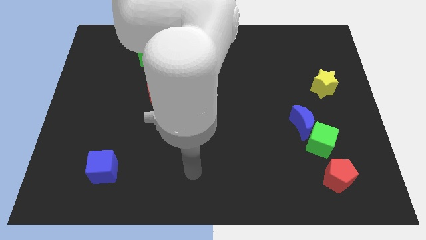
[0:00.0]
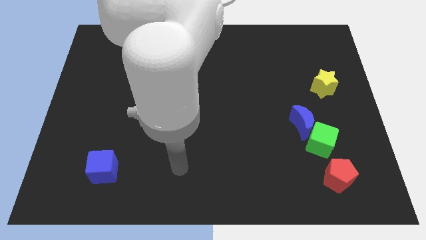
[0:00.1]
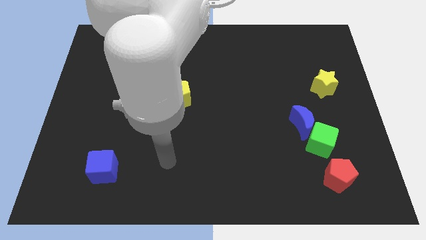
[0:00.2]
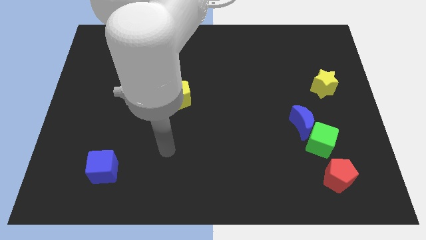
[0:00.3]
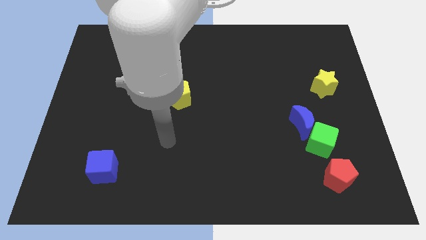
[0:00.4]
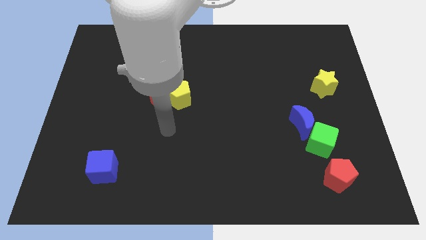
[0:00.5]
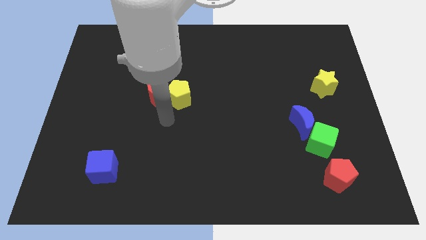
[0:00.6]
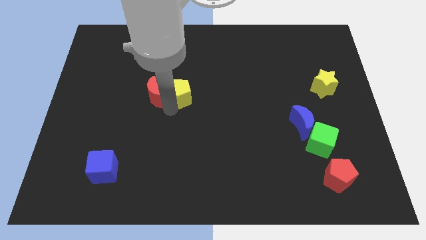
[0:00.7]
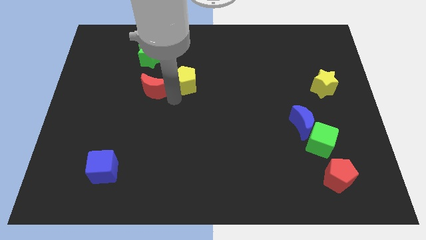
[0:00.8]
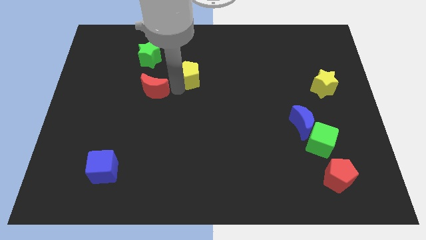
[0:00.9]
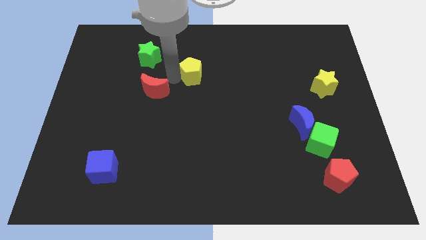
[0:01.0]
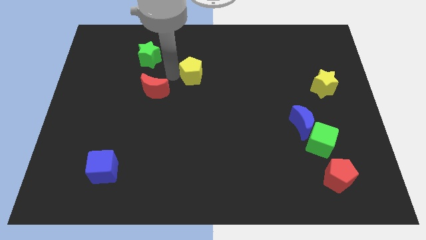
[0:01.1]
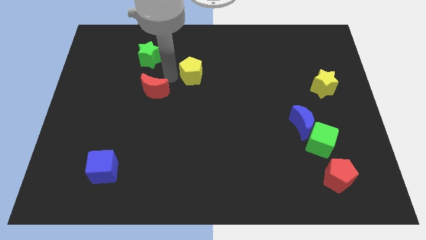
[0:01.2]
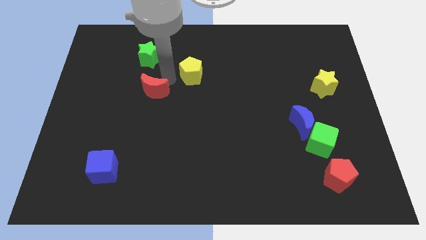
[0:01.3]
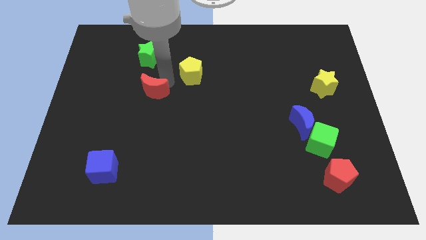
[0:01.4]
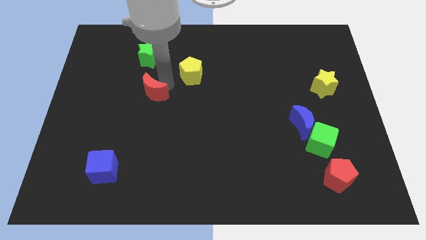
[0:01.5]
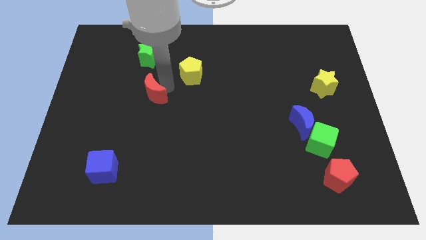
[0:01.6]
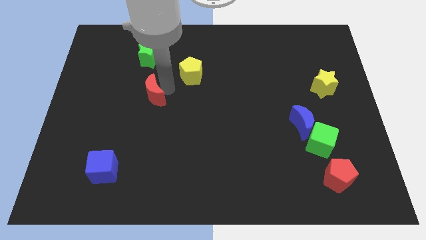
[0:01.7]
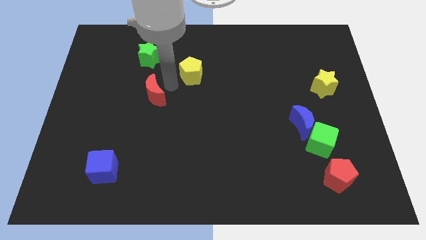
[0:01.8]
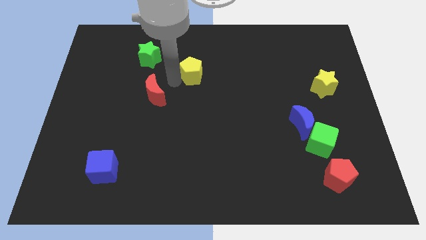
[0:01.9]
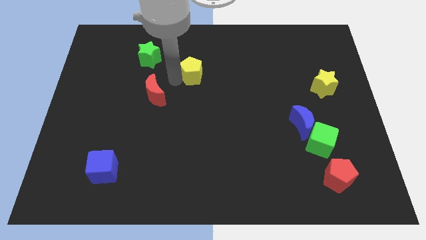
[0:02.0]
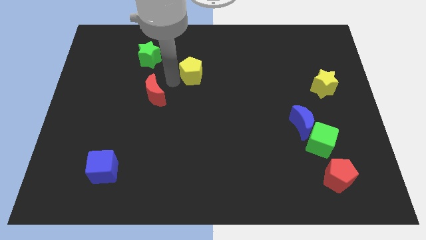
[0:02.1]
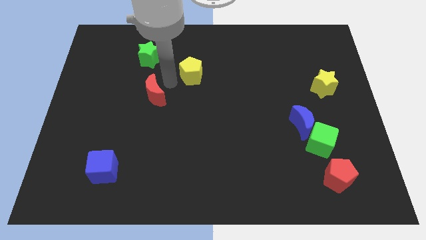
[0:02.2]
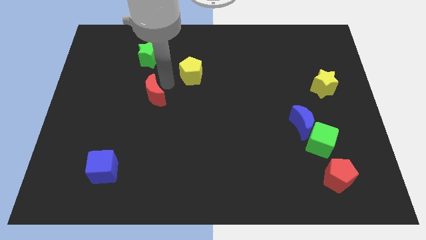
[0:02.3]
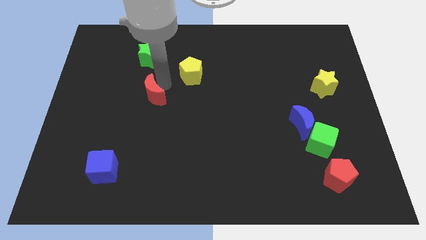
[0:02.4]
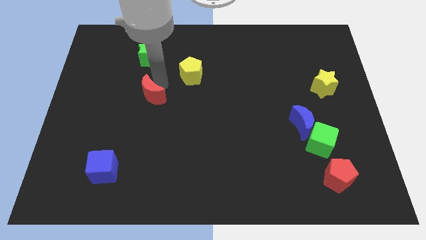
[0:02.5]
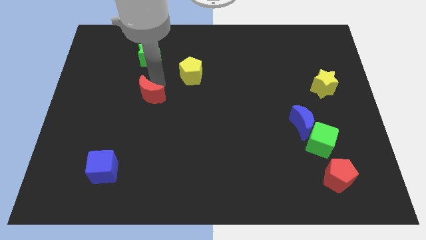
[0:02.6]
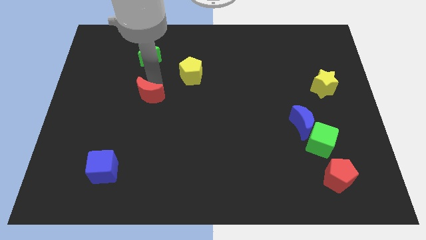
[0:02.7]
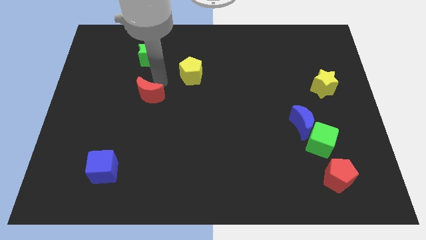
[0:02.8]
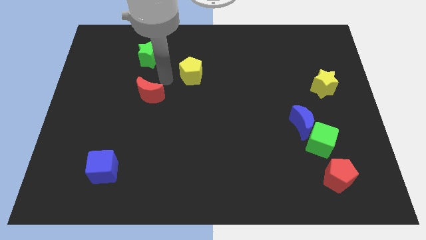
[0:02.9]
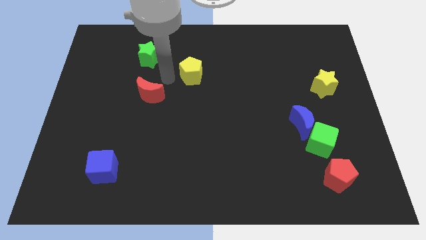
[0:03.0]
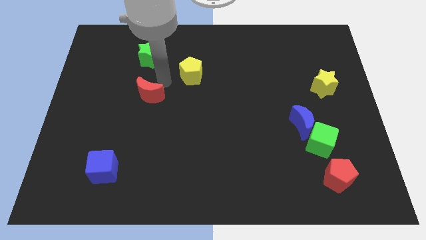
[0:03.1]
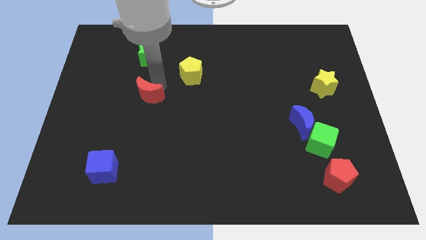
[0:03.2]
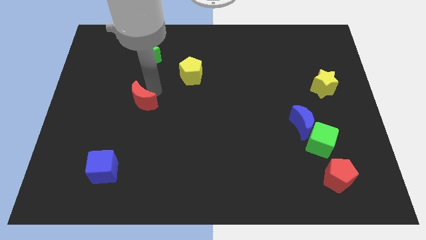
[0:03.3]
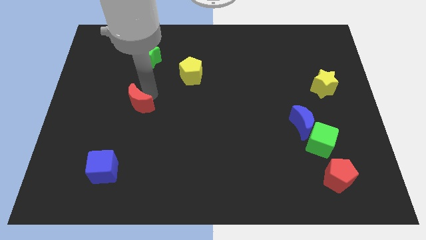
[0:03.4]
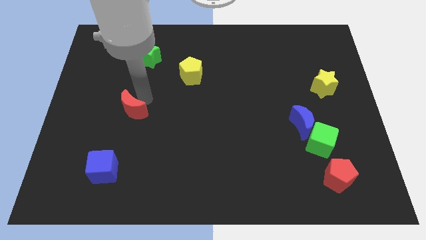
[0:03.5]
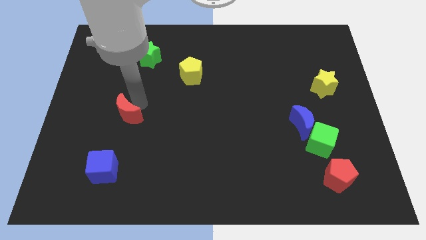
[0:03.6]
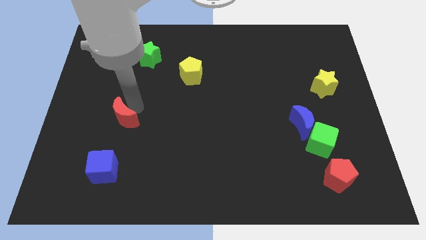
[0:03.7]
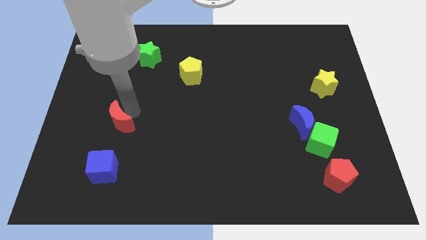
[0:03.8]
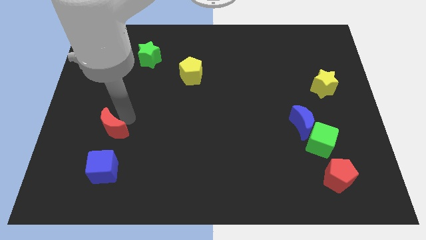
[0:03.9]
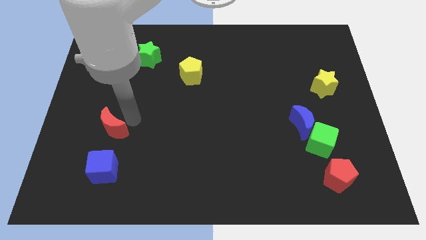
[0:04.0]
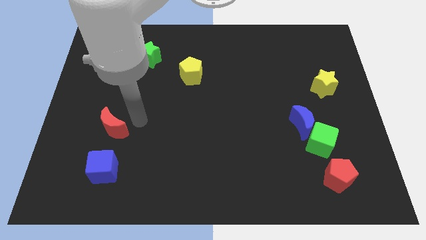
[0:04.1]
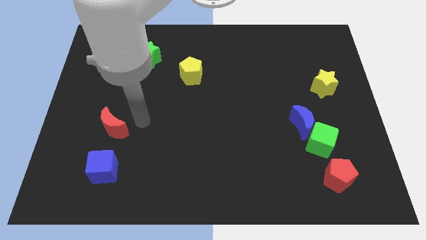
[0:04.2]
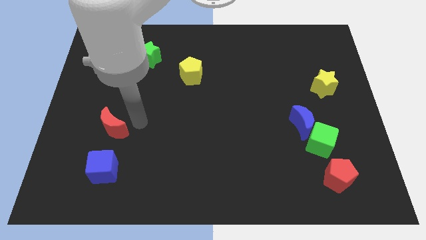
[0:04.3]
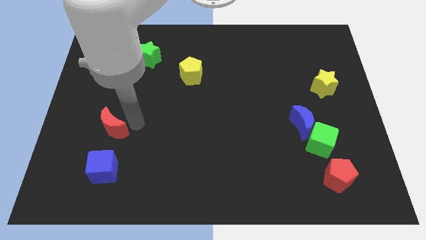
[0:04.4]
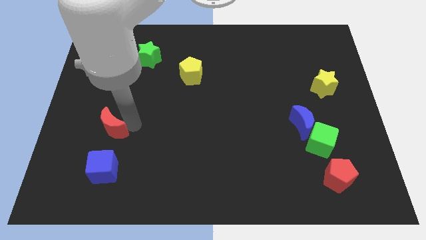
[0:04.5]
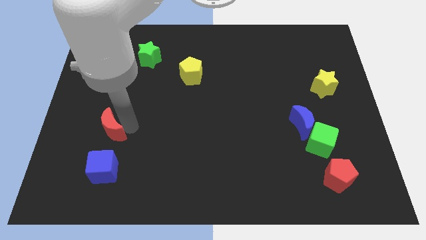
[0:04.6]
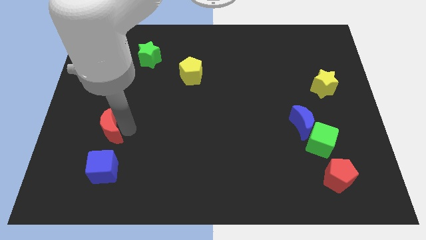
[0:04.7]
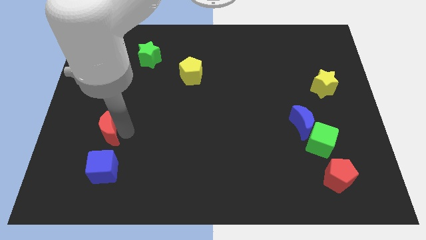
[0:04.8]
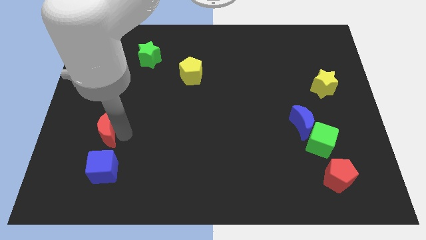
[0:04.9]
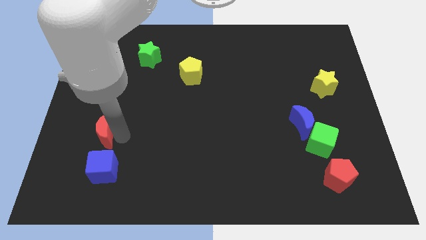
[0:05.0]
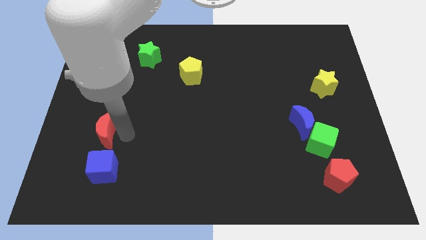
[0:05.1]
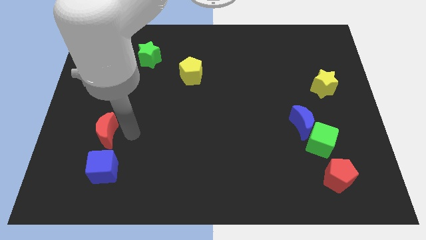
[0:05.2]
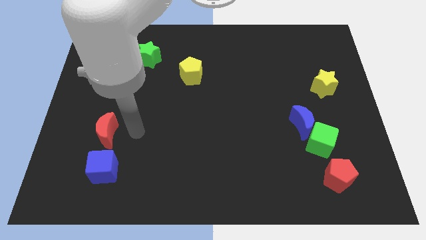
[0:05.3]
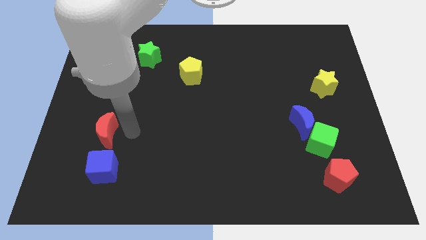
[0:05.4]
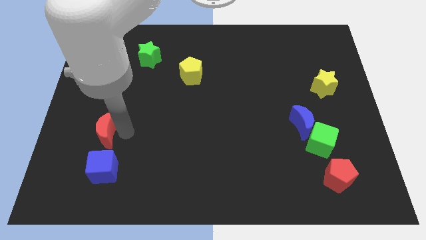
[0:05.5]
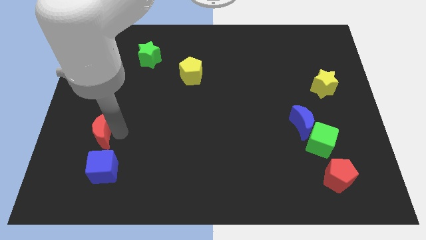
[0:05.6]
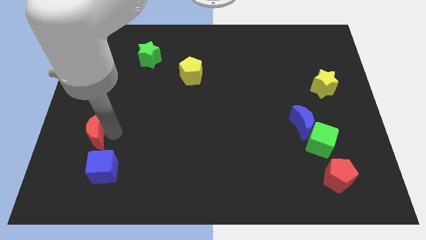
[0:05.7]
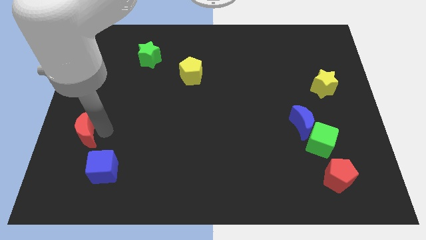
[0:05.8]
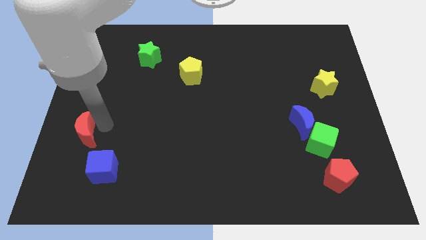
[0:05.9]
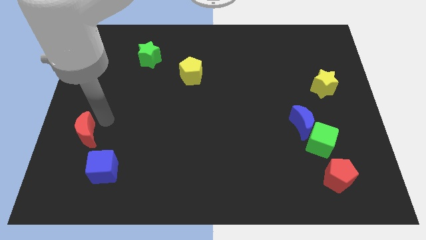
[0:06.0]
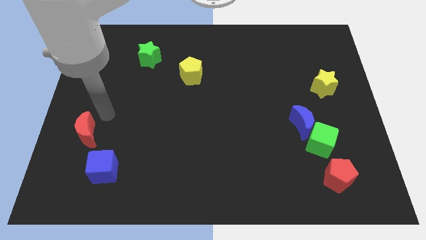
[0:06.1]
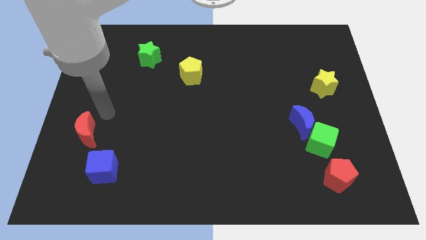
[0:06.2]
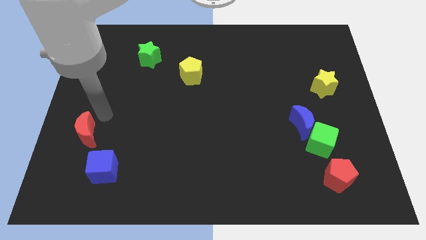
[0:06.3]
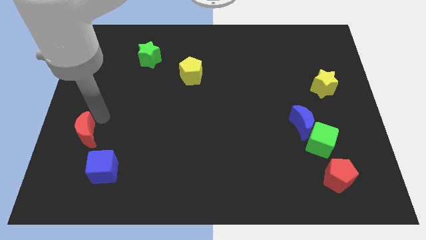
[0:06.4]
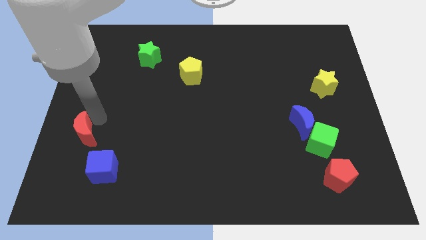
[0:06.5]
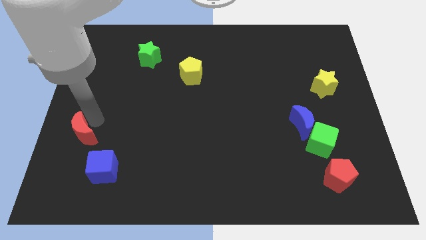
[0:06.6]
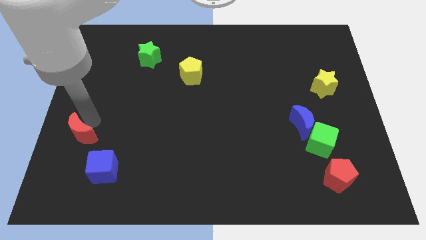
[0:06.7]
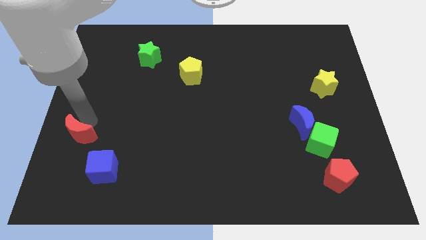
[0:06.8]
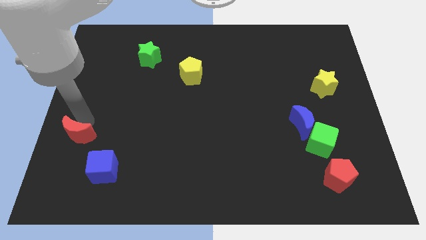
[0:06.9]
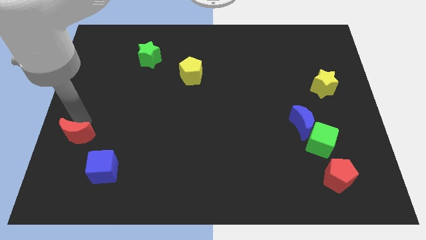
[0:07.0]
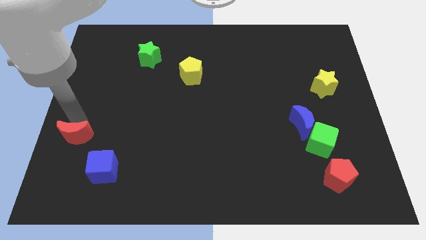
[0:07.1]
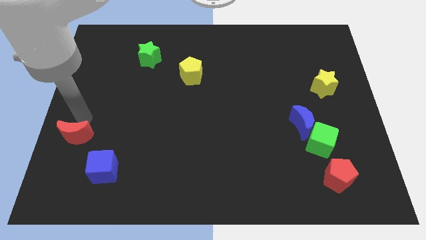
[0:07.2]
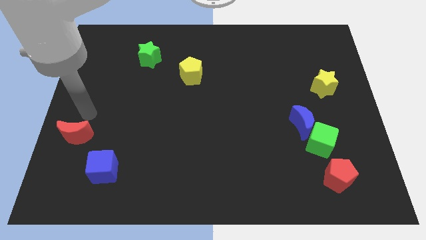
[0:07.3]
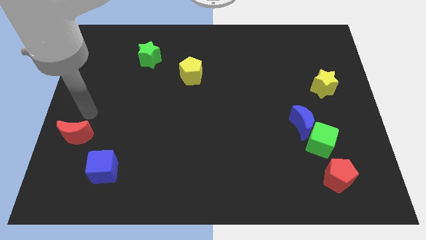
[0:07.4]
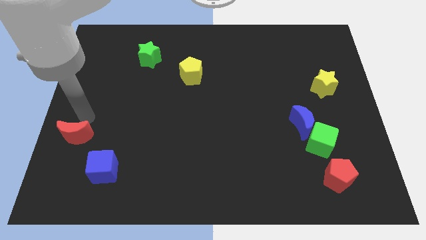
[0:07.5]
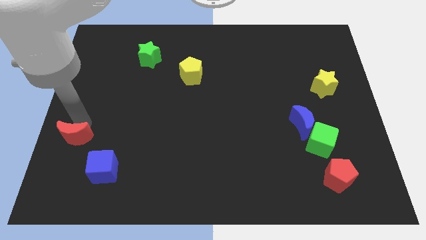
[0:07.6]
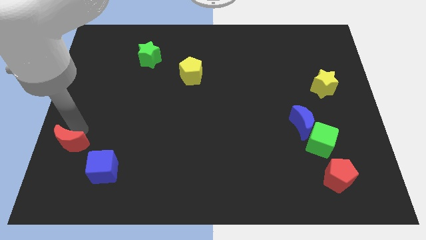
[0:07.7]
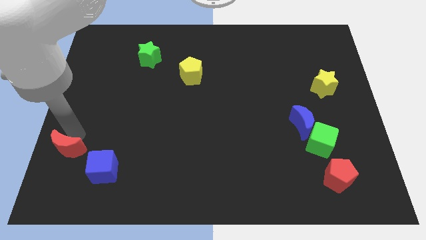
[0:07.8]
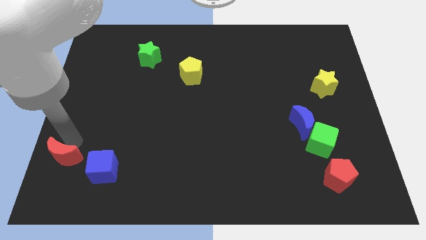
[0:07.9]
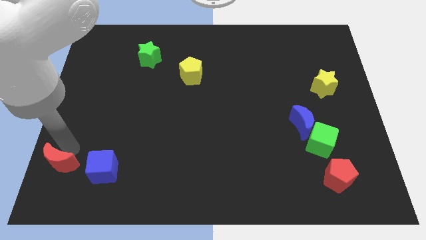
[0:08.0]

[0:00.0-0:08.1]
put the red moon to the lower left corner
